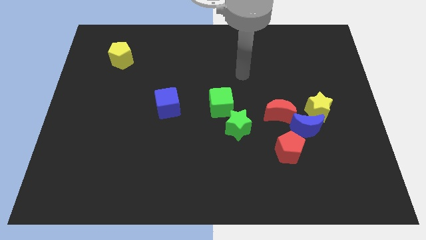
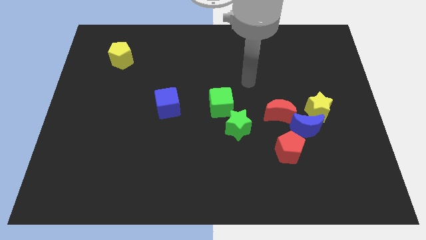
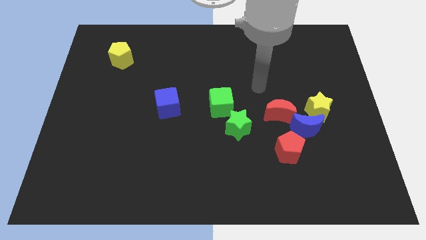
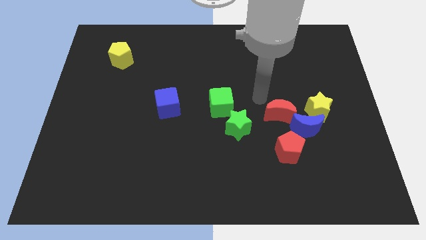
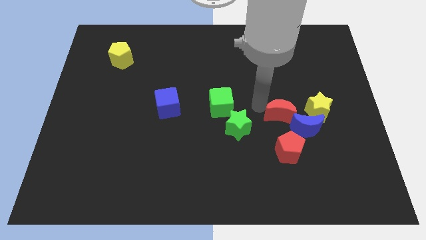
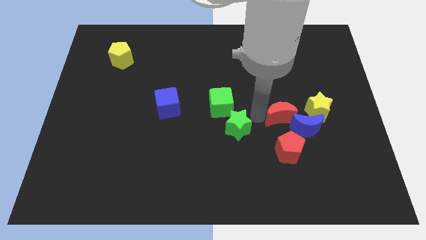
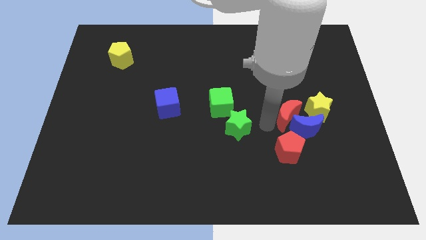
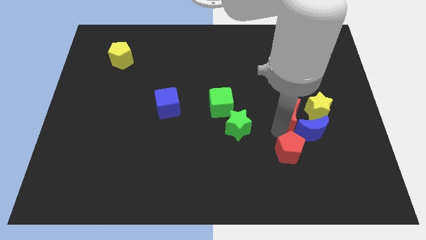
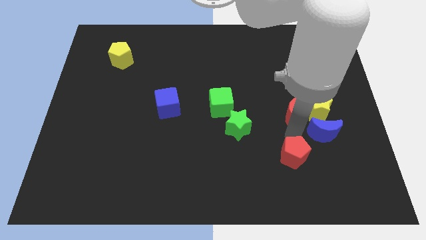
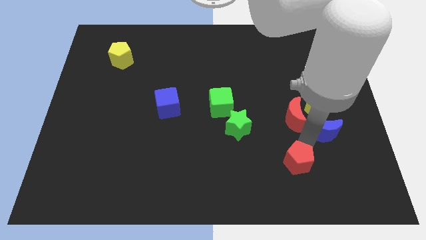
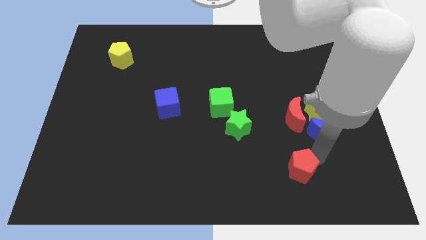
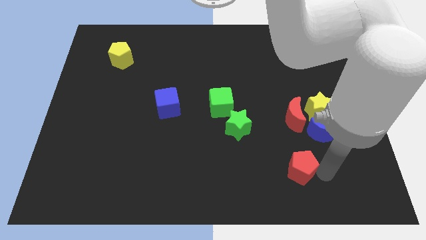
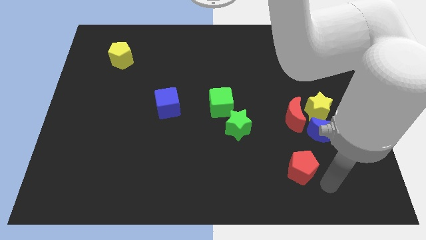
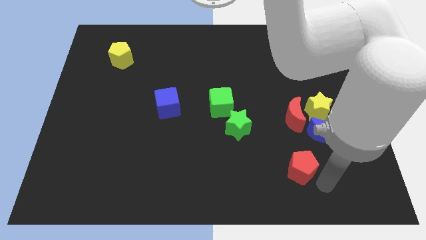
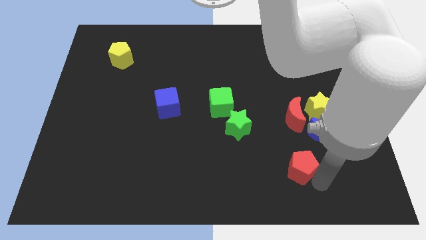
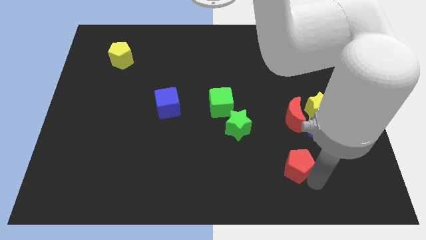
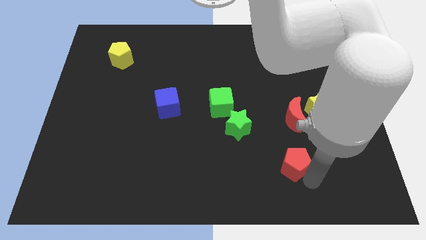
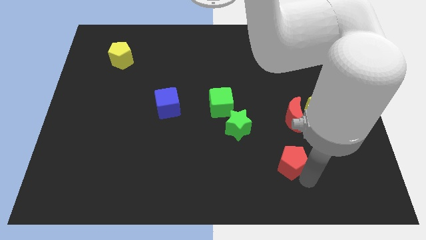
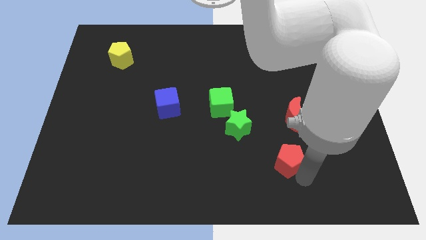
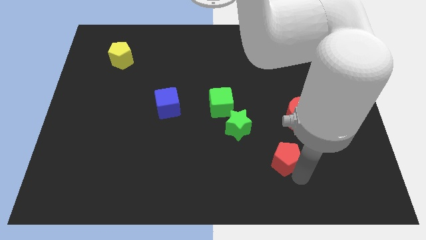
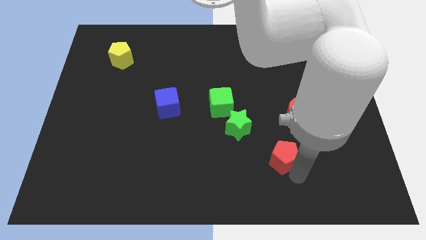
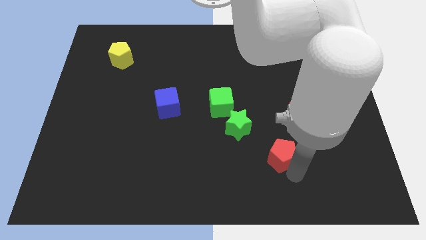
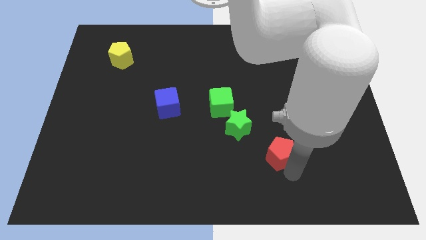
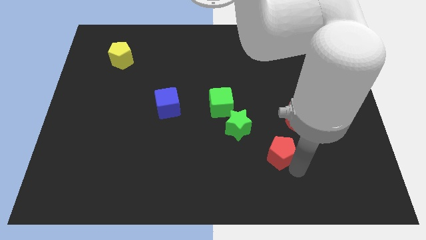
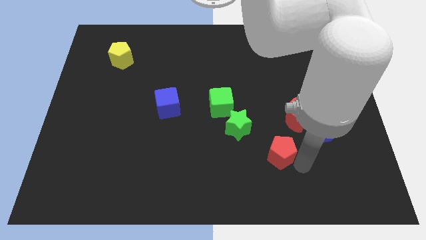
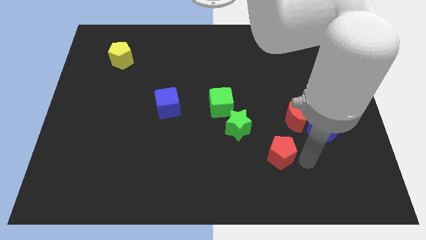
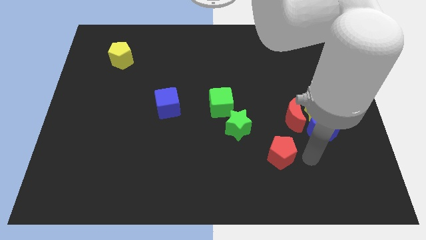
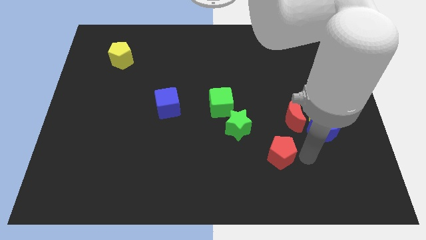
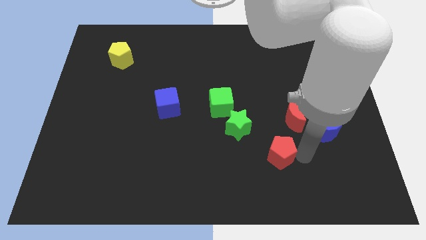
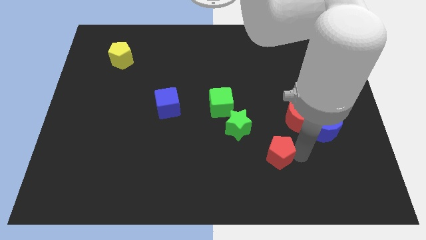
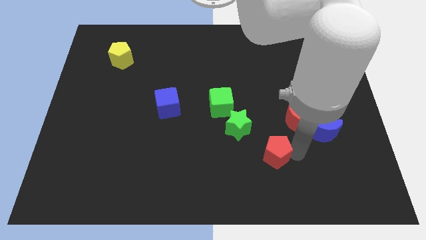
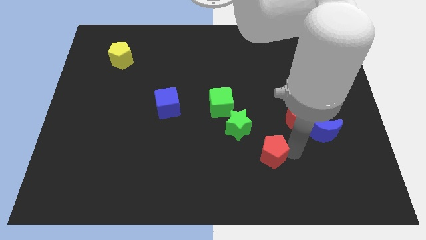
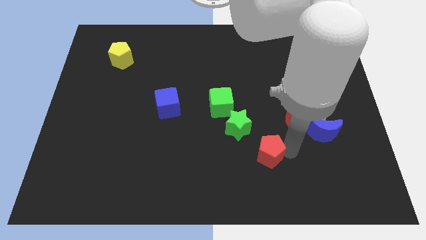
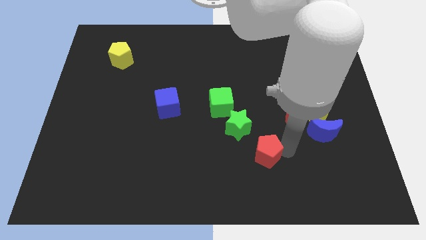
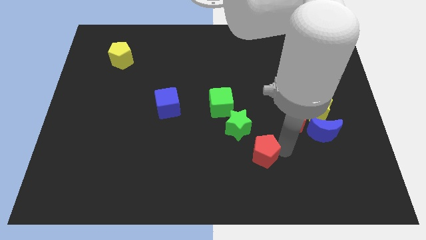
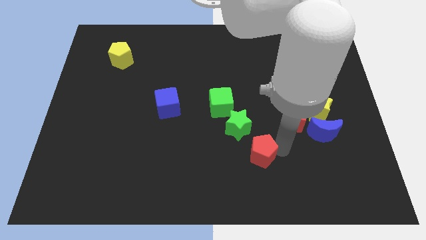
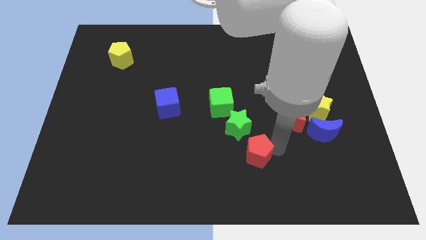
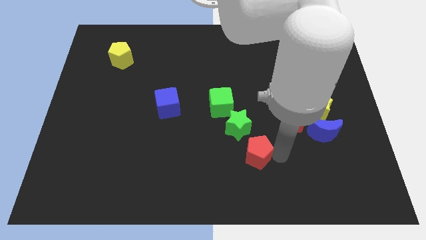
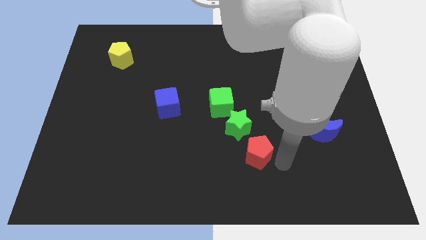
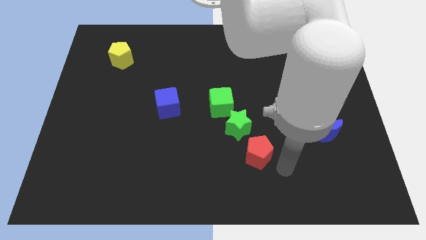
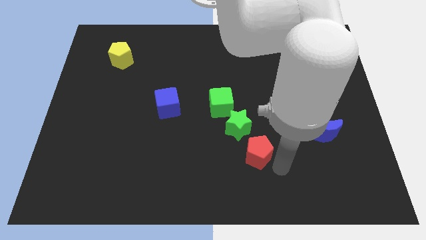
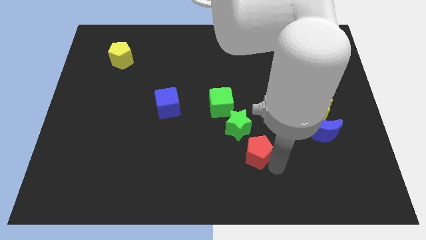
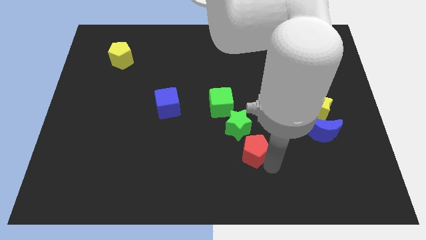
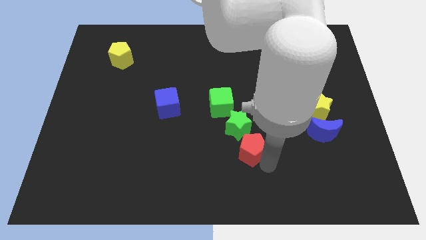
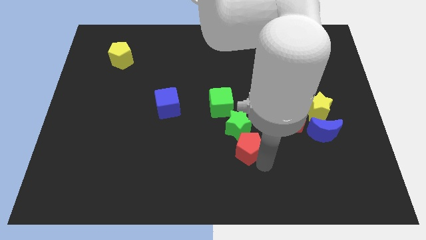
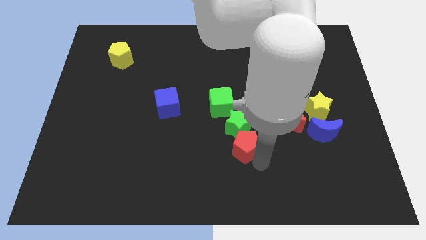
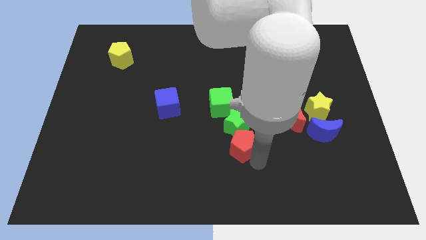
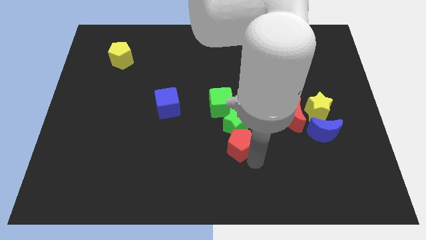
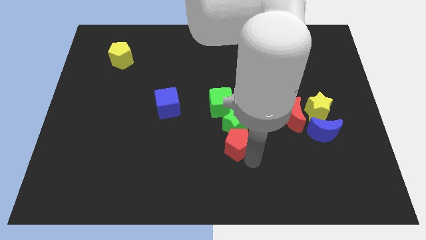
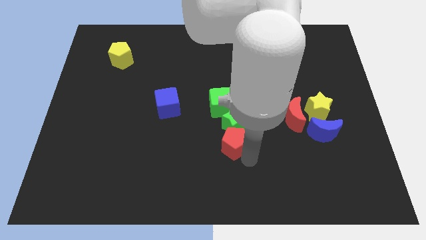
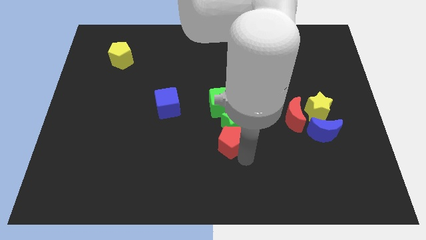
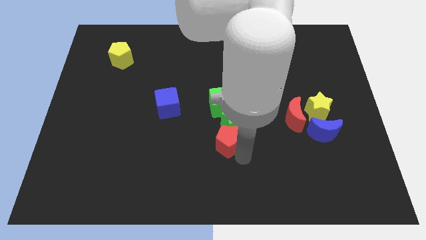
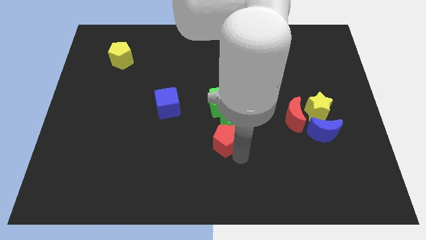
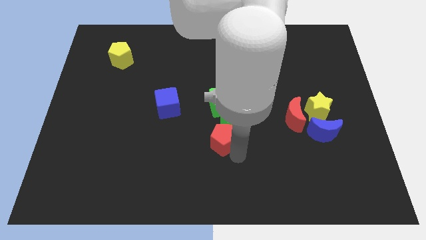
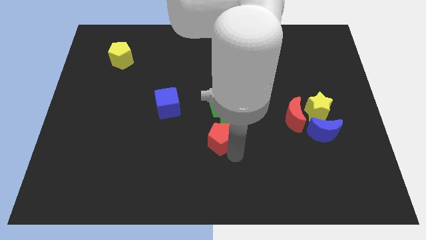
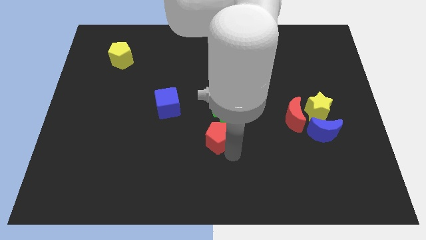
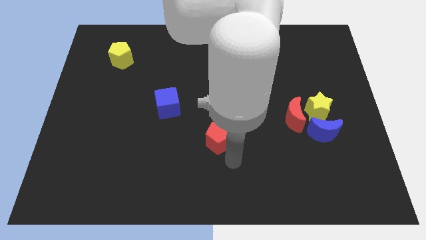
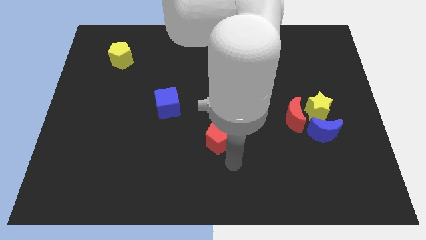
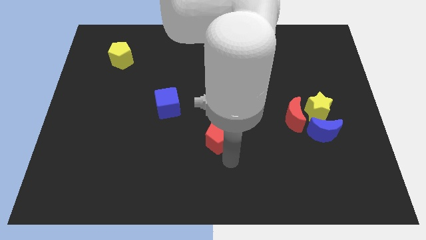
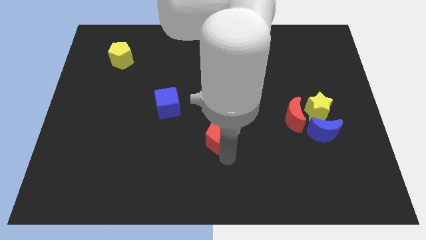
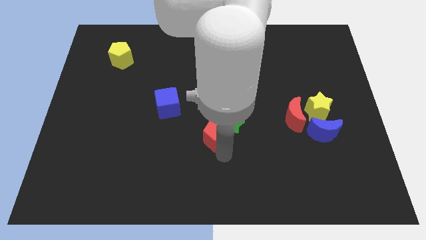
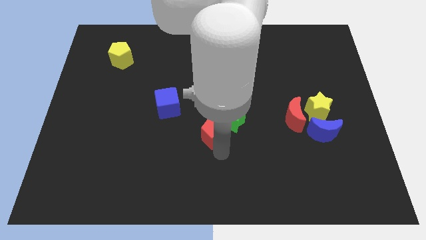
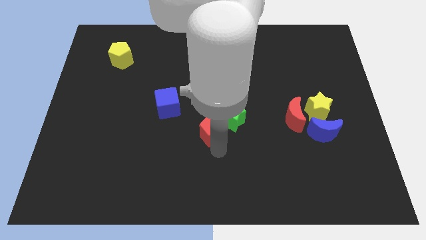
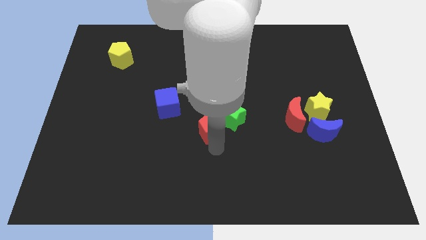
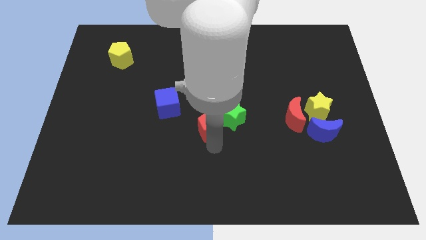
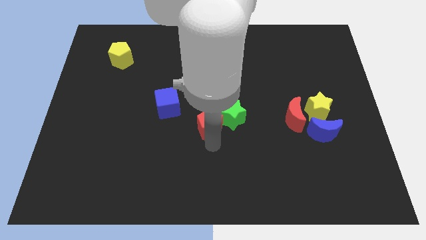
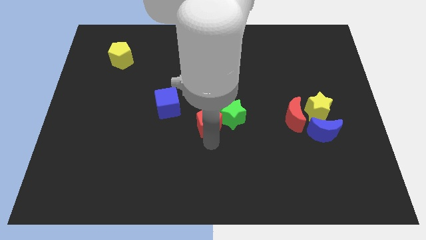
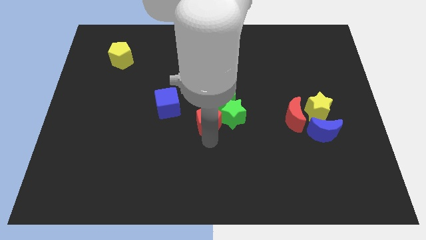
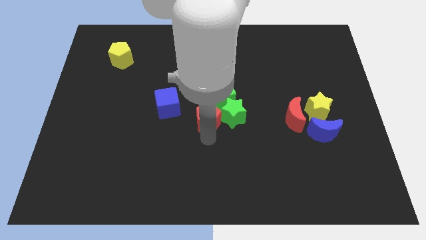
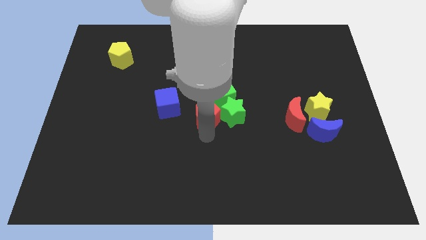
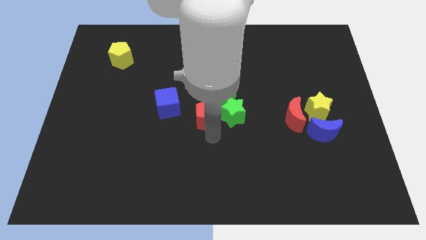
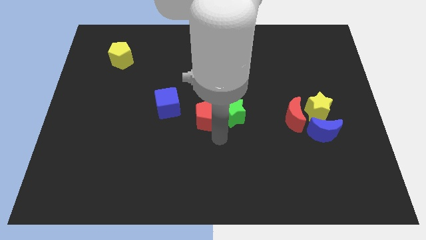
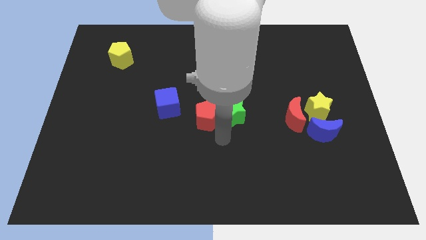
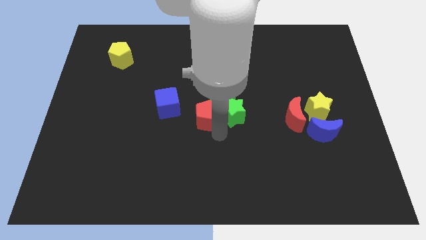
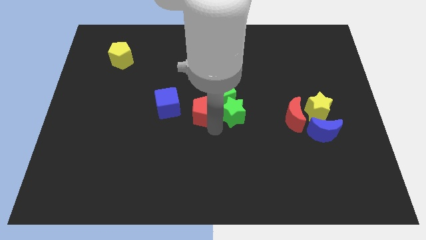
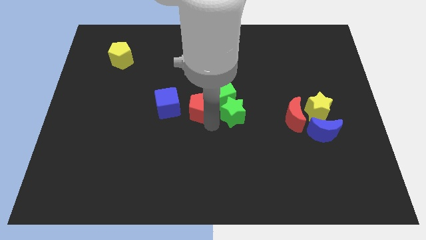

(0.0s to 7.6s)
slide the red pentagon upwards and then to the left
